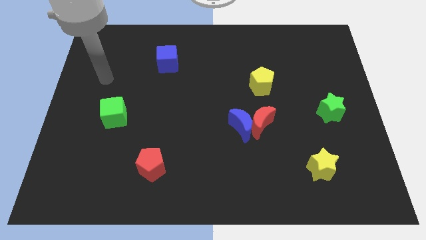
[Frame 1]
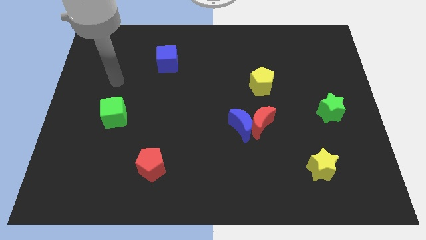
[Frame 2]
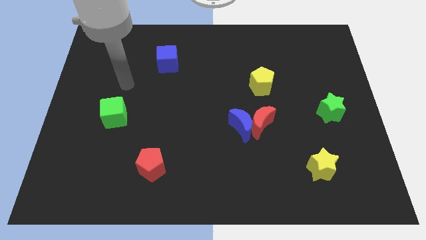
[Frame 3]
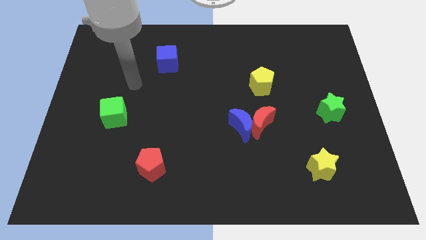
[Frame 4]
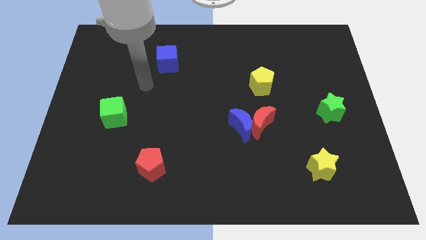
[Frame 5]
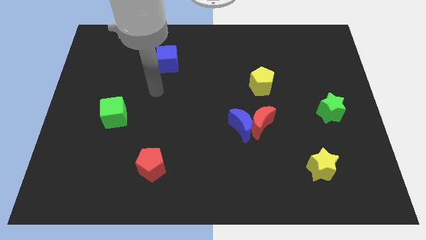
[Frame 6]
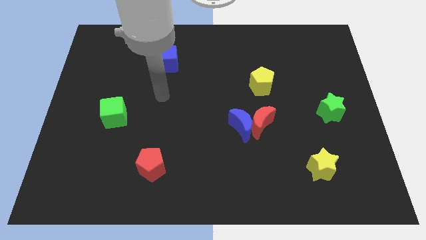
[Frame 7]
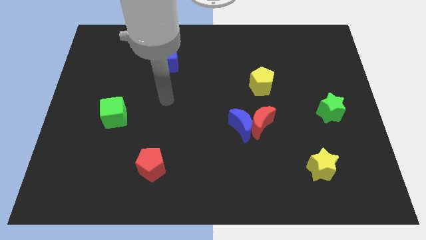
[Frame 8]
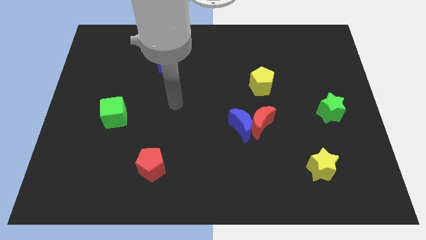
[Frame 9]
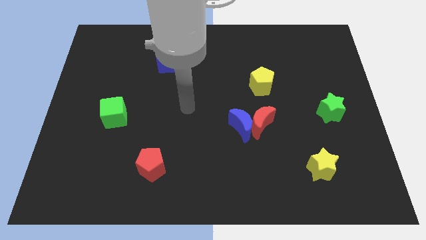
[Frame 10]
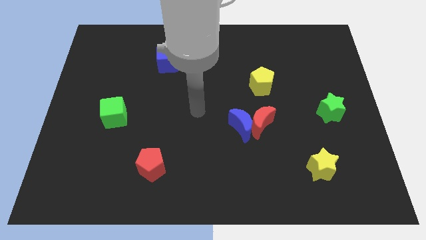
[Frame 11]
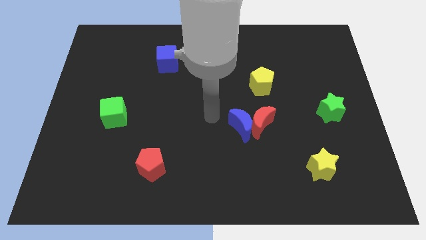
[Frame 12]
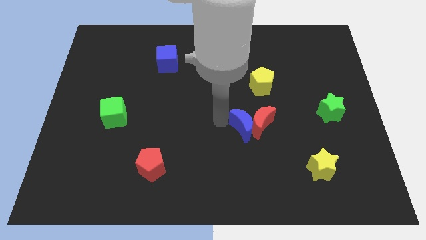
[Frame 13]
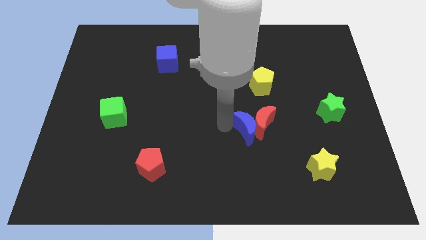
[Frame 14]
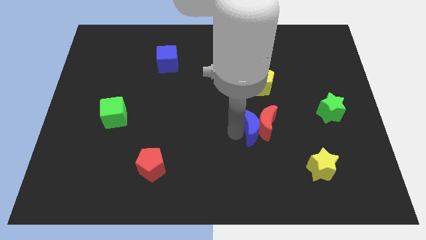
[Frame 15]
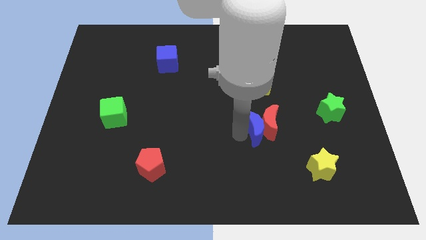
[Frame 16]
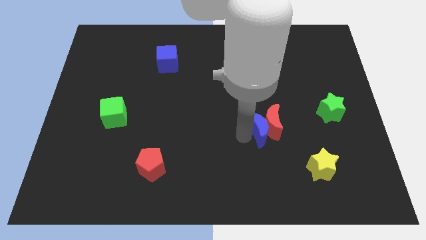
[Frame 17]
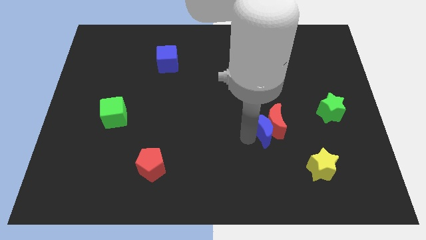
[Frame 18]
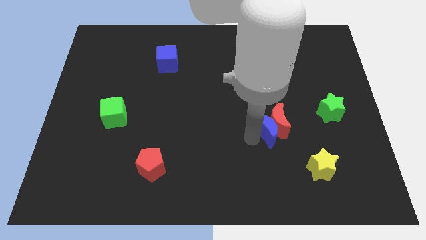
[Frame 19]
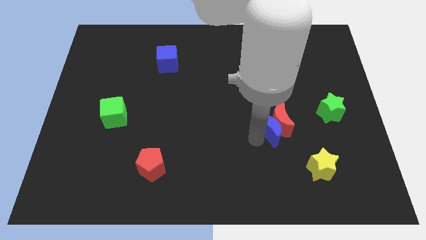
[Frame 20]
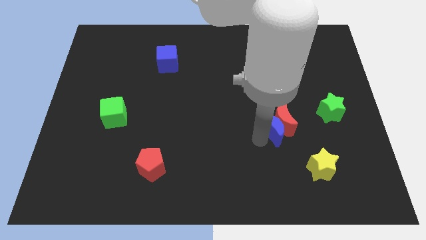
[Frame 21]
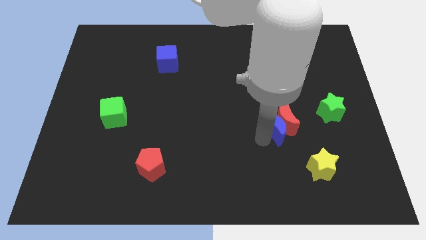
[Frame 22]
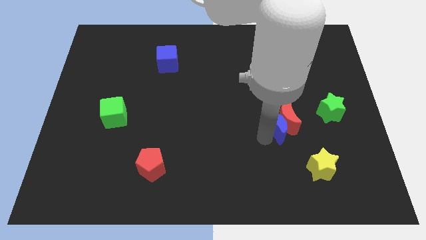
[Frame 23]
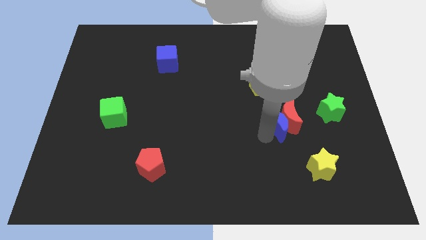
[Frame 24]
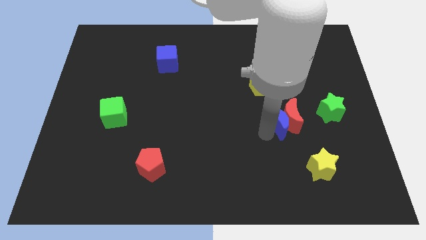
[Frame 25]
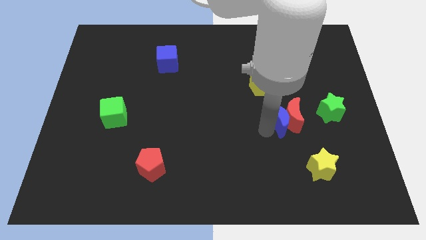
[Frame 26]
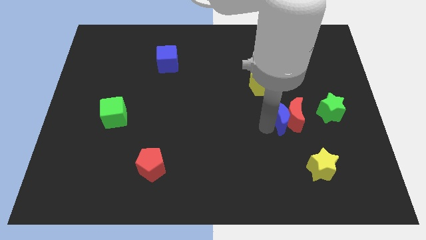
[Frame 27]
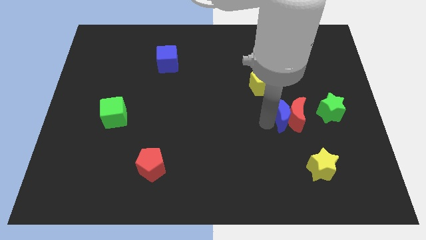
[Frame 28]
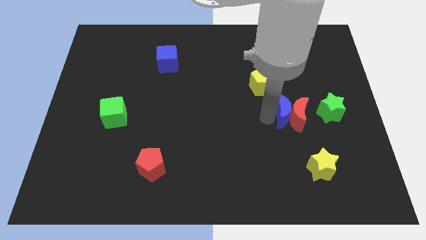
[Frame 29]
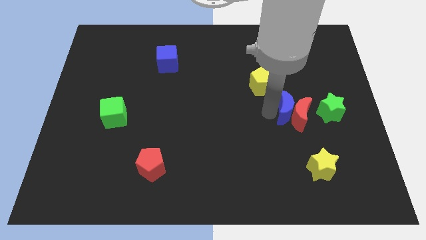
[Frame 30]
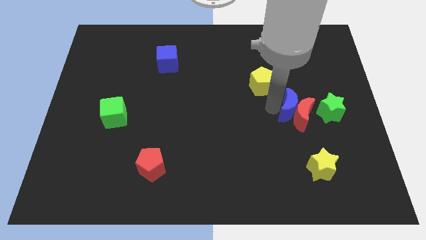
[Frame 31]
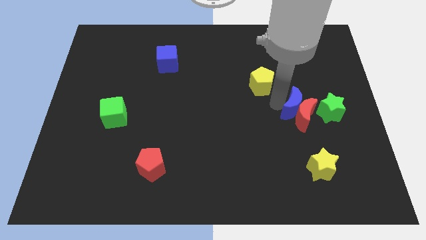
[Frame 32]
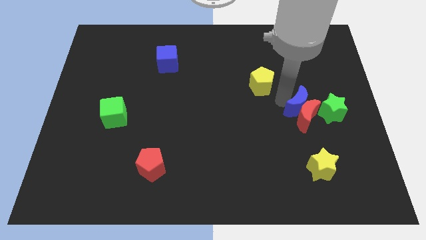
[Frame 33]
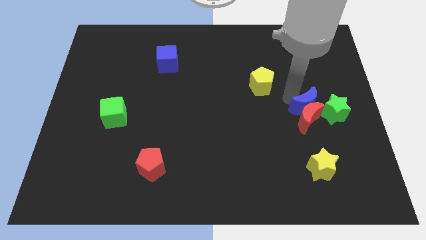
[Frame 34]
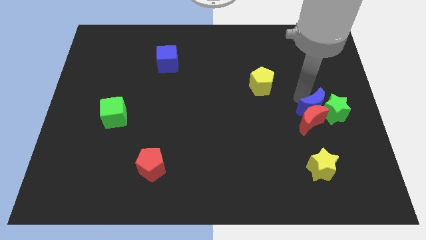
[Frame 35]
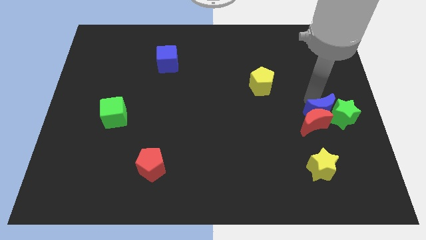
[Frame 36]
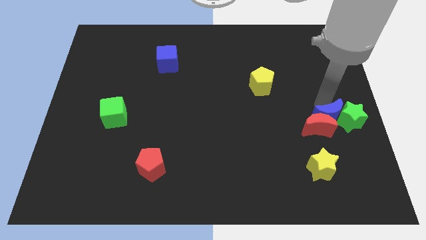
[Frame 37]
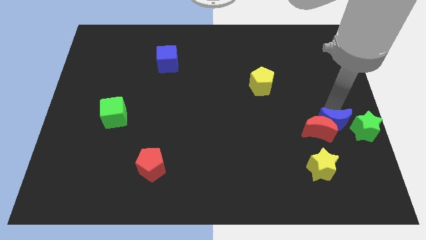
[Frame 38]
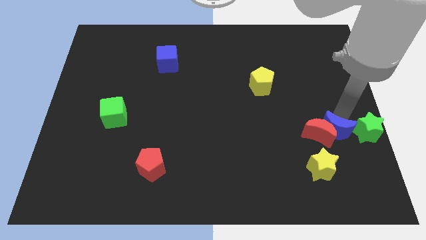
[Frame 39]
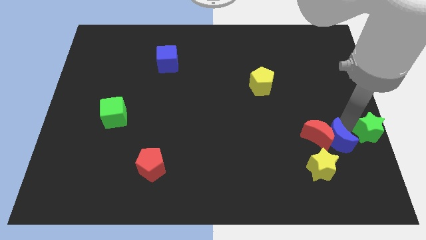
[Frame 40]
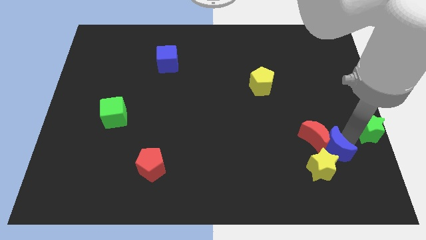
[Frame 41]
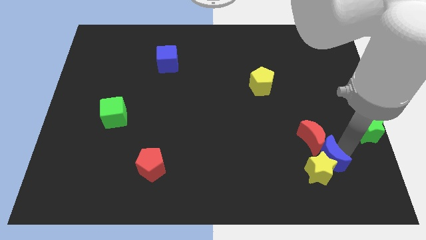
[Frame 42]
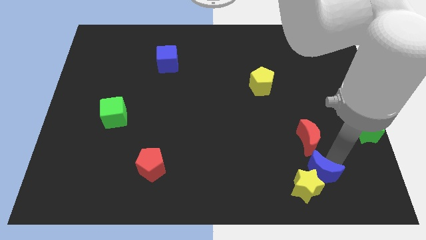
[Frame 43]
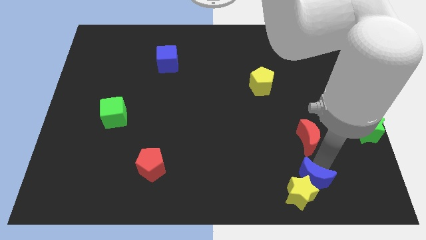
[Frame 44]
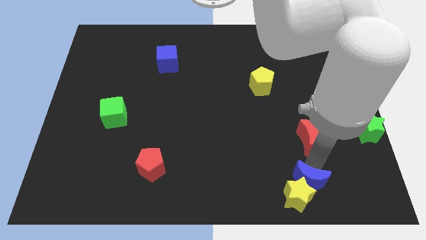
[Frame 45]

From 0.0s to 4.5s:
separate the red moon from the blue moon

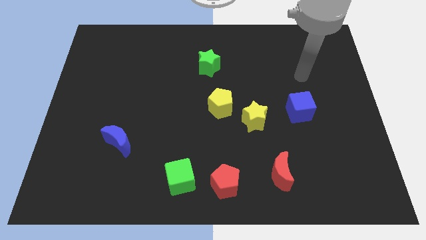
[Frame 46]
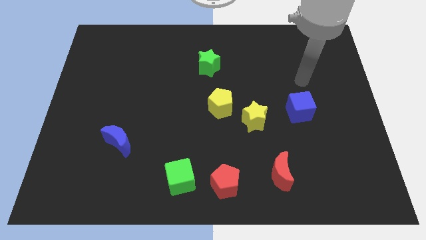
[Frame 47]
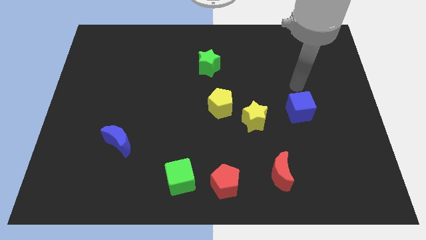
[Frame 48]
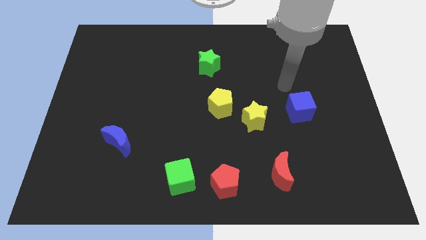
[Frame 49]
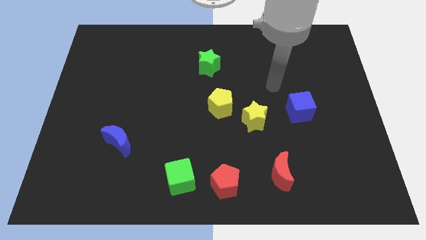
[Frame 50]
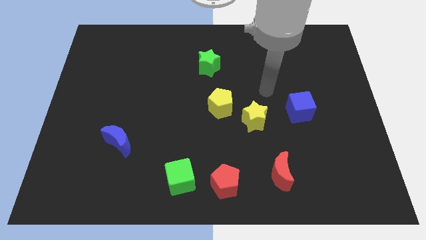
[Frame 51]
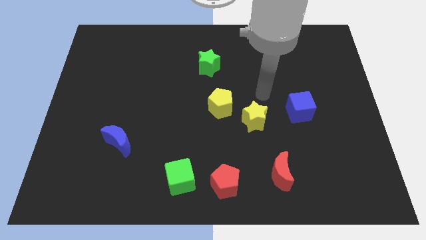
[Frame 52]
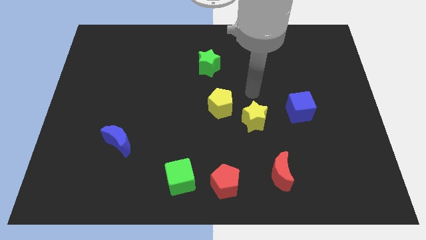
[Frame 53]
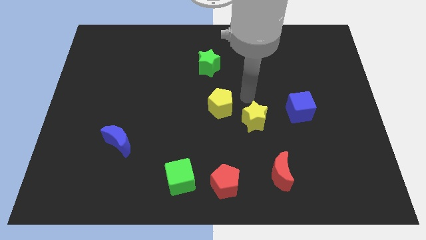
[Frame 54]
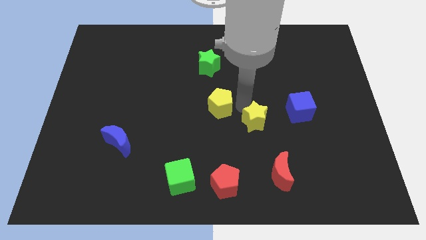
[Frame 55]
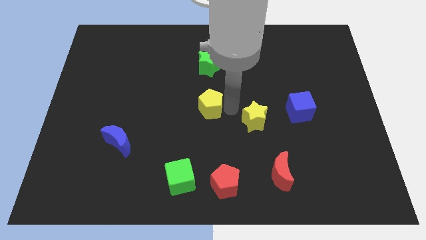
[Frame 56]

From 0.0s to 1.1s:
separate the yellow star from the yellow pentagon

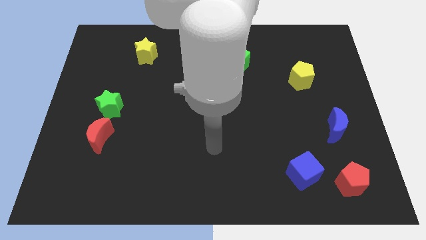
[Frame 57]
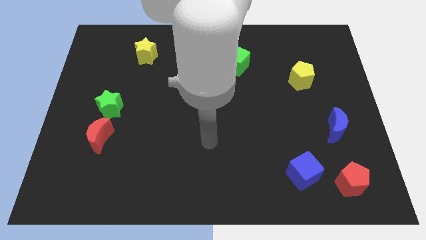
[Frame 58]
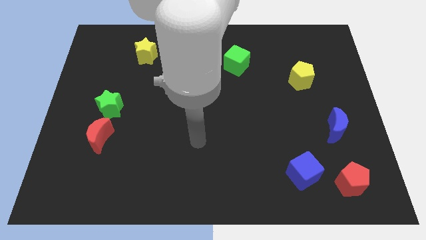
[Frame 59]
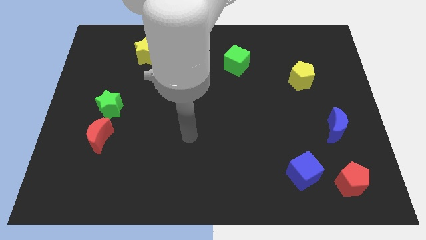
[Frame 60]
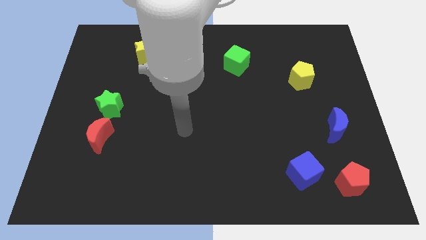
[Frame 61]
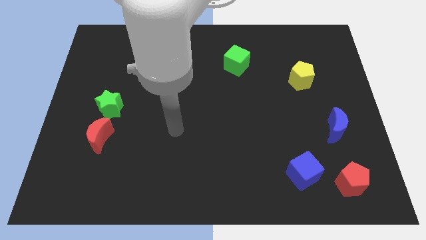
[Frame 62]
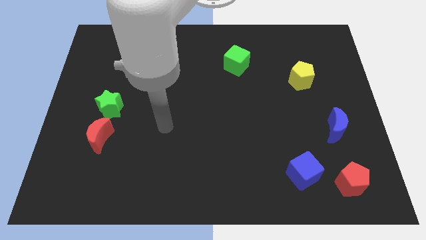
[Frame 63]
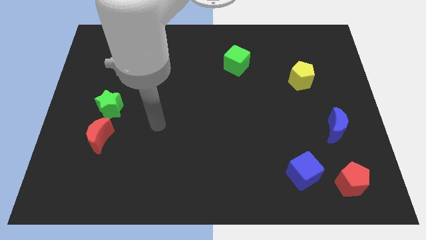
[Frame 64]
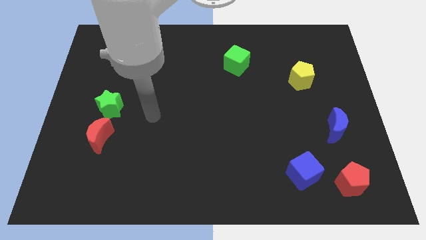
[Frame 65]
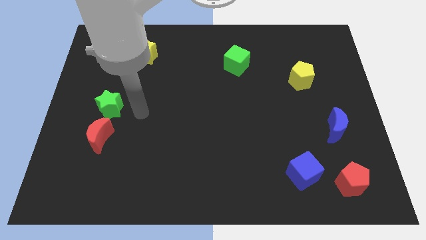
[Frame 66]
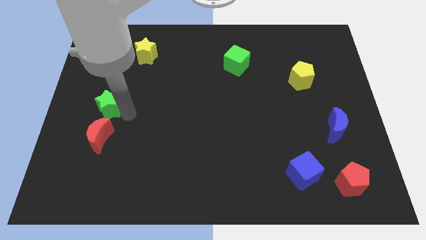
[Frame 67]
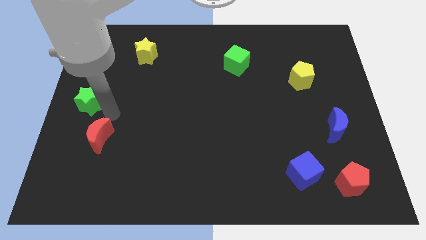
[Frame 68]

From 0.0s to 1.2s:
pull the red moon apart from the green star

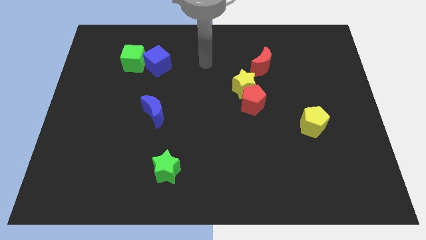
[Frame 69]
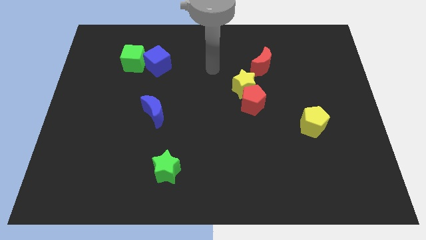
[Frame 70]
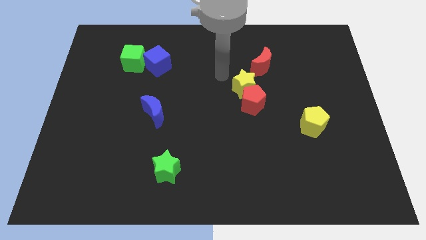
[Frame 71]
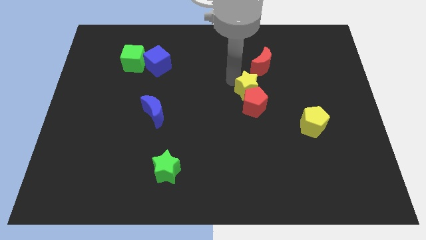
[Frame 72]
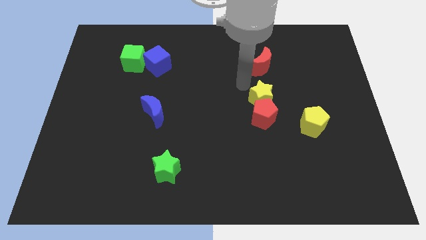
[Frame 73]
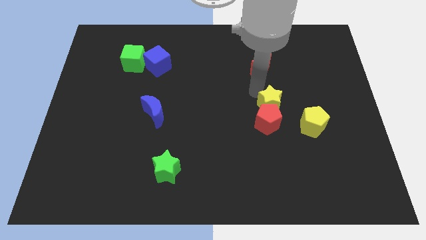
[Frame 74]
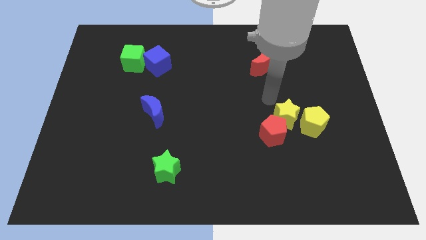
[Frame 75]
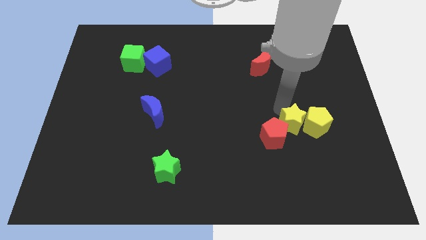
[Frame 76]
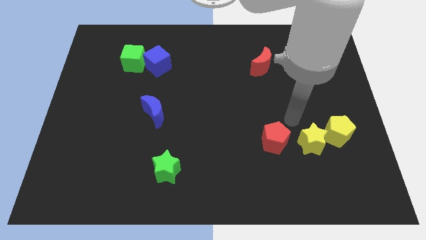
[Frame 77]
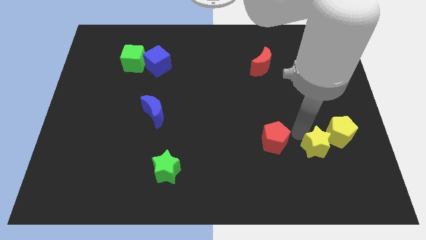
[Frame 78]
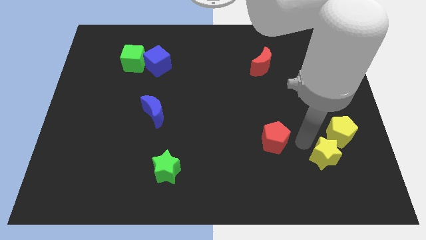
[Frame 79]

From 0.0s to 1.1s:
move the red pentagon away from the yellow star

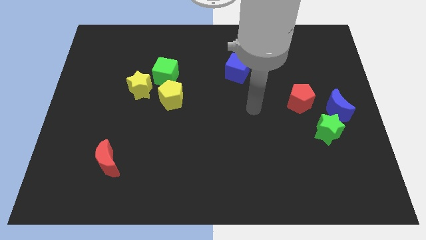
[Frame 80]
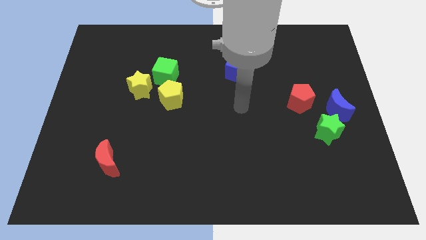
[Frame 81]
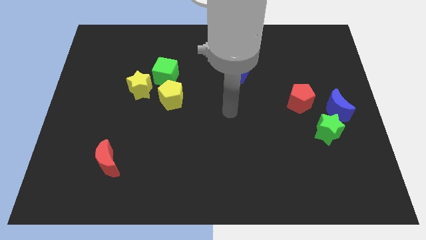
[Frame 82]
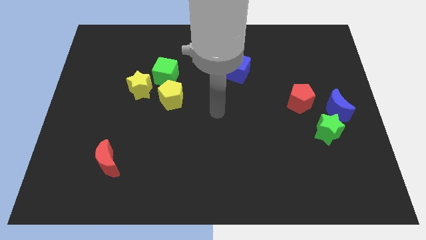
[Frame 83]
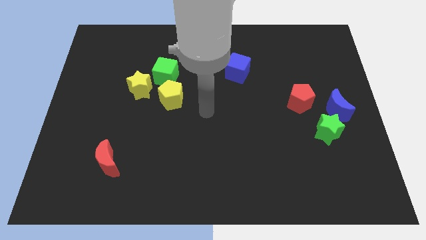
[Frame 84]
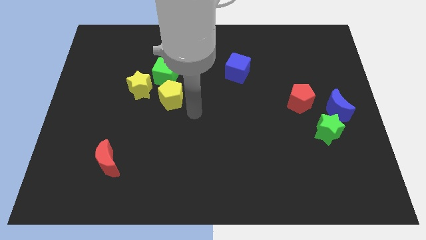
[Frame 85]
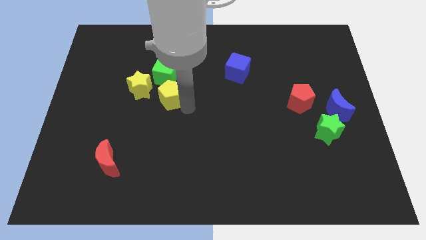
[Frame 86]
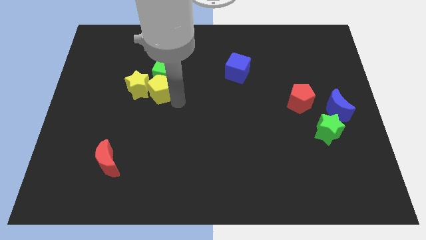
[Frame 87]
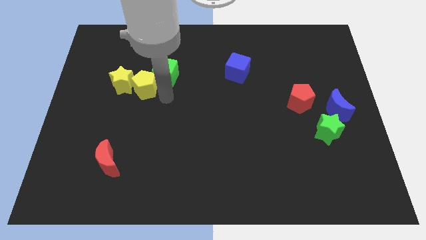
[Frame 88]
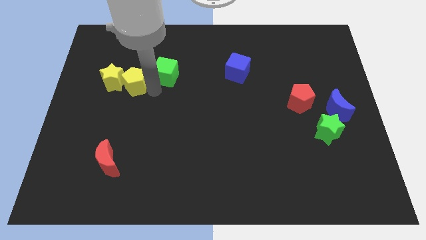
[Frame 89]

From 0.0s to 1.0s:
pull the green cube apart from the yellow star and yellow pentagon

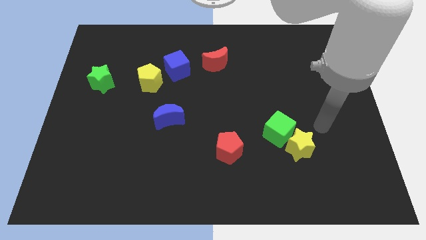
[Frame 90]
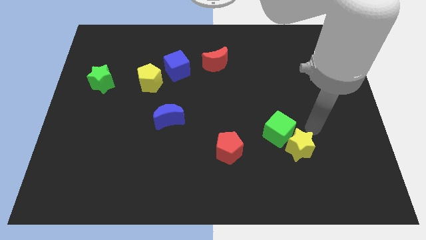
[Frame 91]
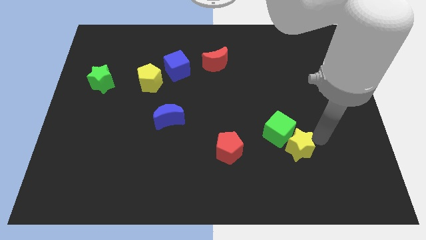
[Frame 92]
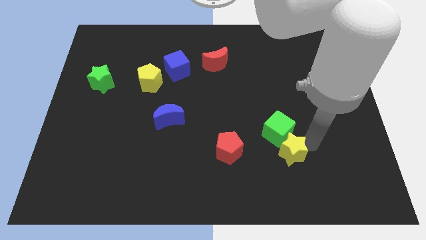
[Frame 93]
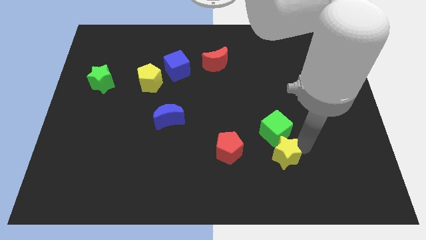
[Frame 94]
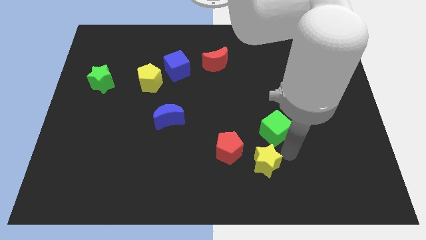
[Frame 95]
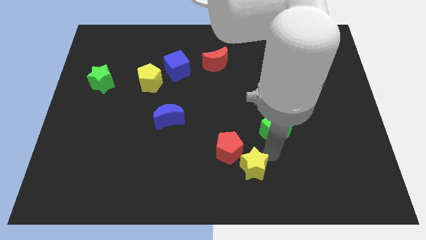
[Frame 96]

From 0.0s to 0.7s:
separate the green cube from the yellow star
